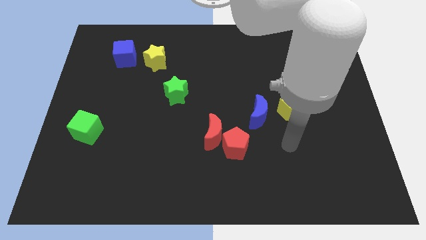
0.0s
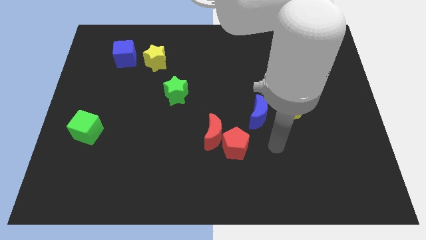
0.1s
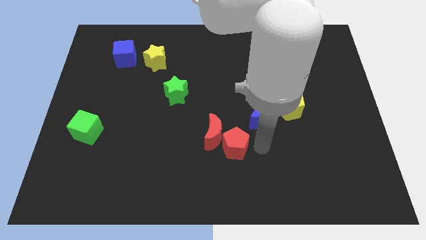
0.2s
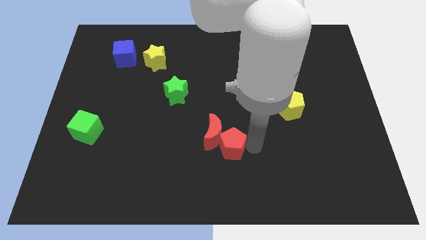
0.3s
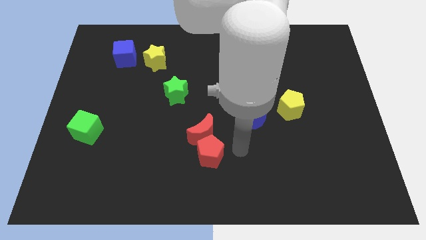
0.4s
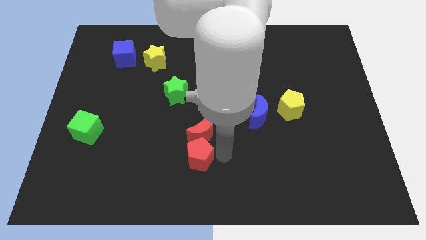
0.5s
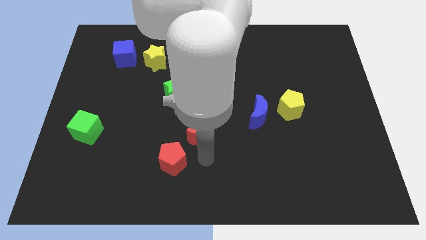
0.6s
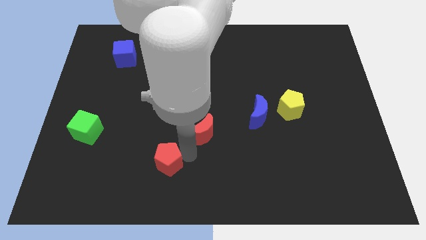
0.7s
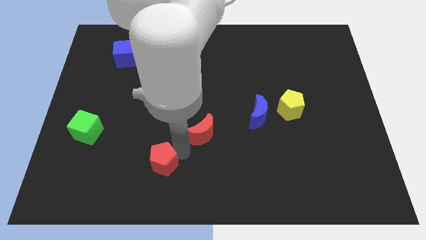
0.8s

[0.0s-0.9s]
separate the red moon from the red pentagon

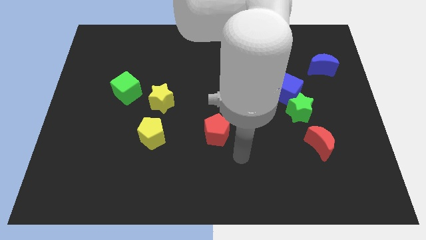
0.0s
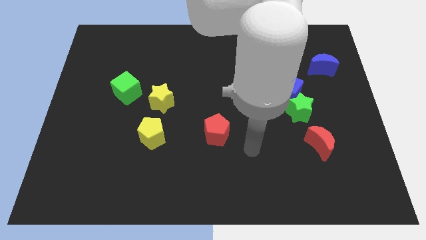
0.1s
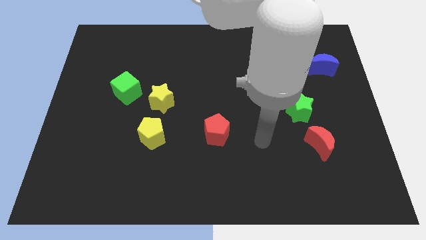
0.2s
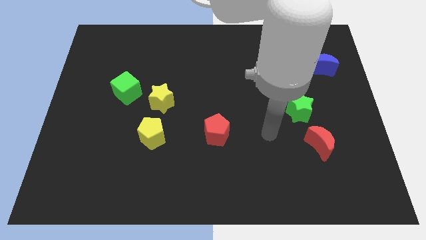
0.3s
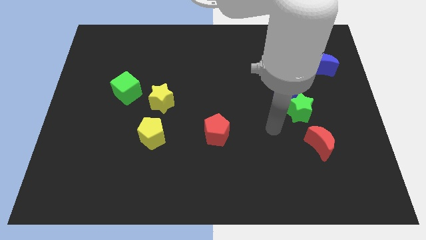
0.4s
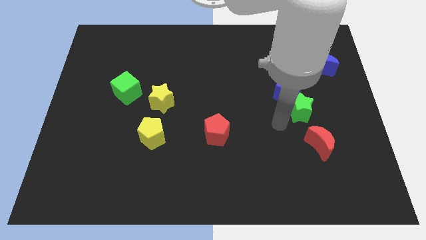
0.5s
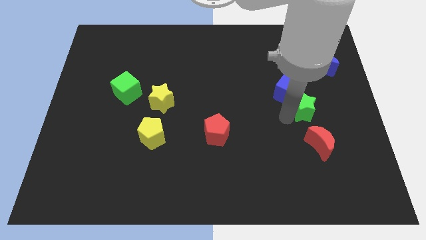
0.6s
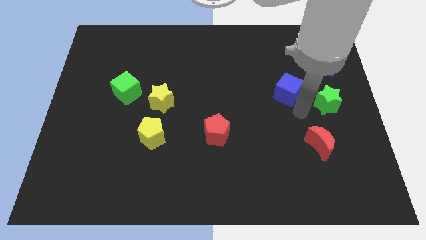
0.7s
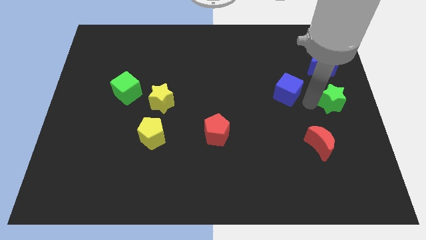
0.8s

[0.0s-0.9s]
separate the blue cube from the green star

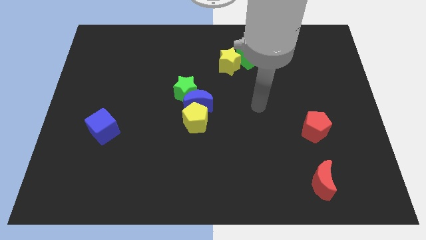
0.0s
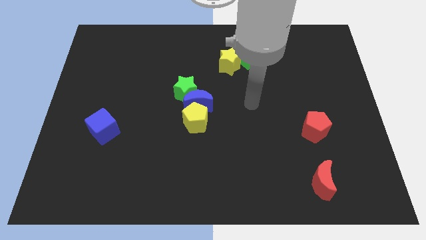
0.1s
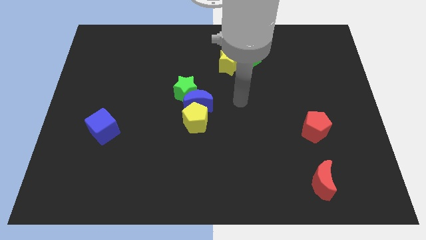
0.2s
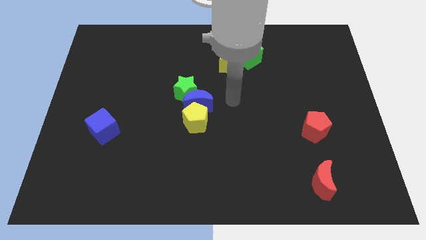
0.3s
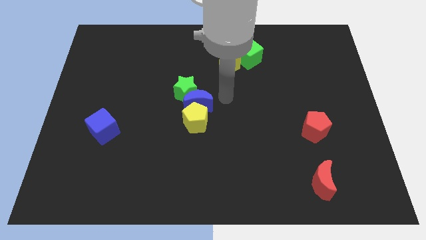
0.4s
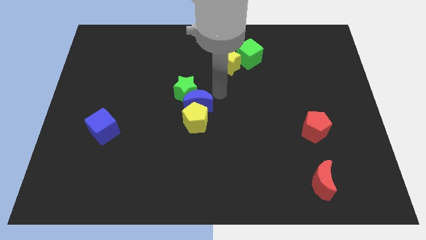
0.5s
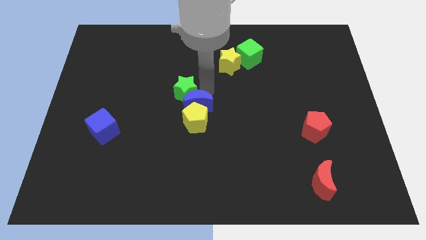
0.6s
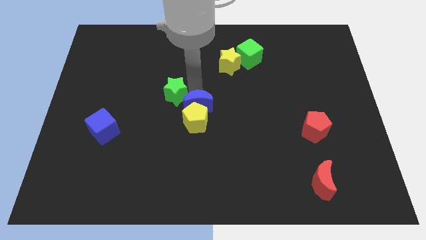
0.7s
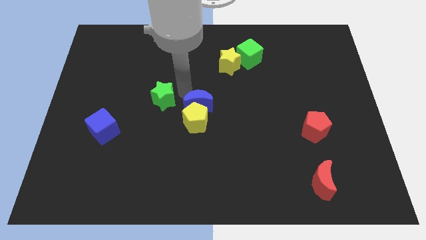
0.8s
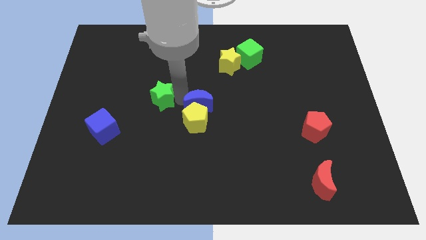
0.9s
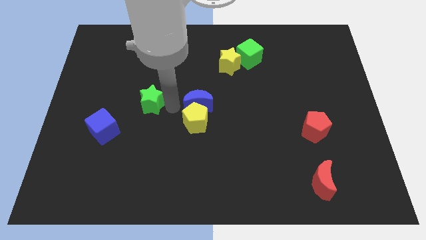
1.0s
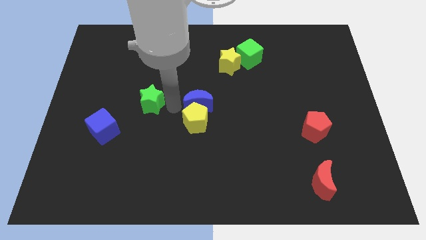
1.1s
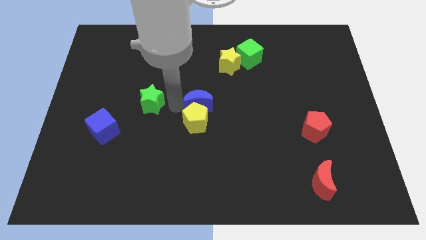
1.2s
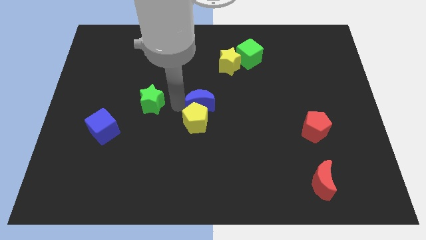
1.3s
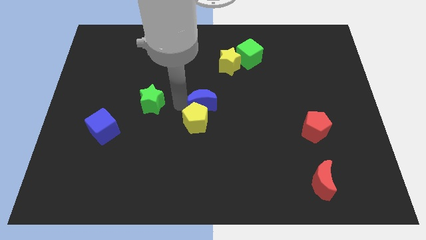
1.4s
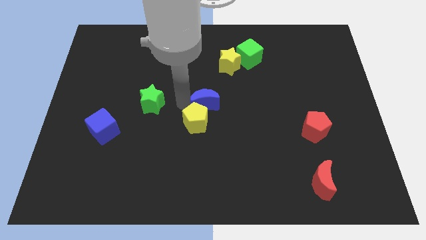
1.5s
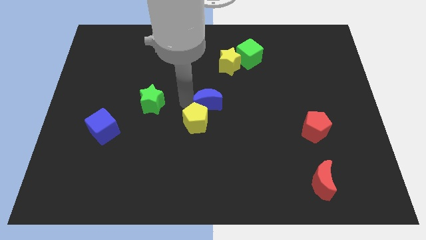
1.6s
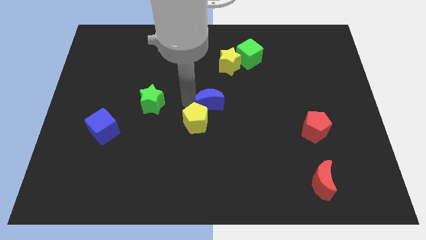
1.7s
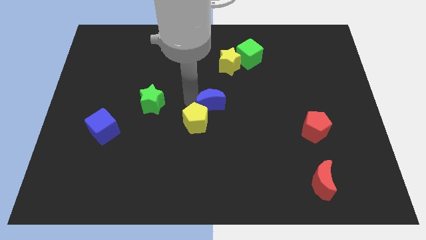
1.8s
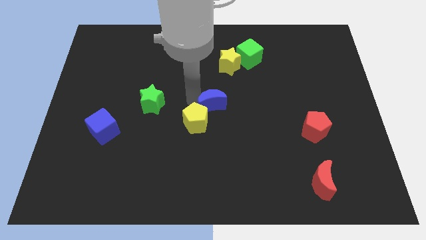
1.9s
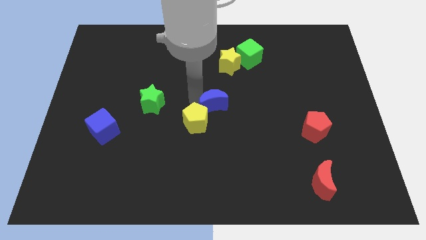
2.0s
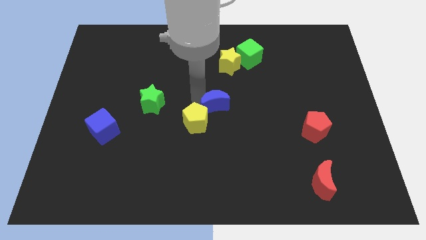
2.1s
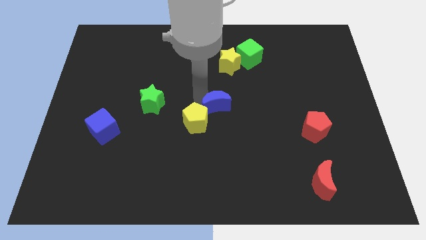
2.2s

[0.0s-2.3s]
pull the blue moon apart from the green star and yellow pentagon

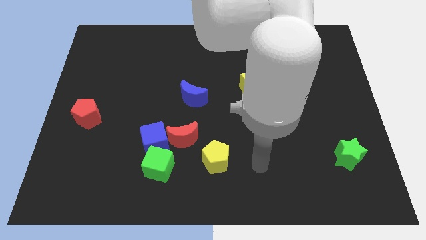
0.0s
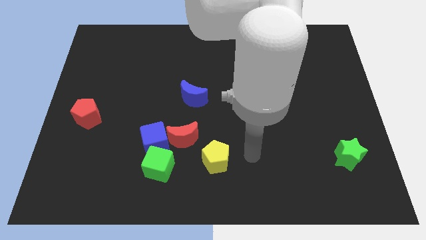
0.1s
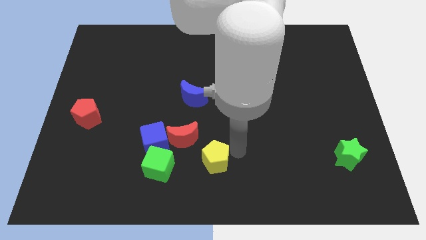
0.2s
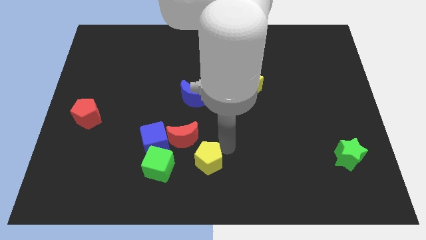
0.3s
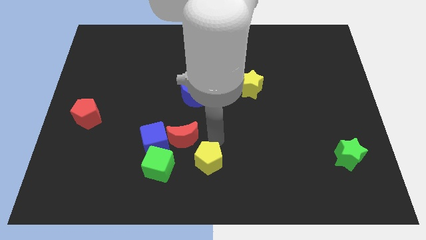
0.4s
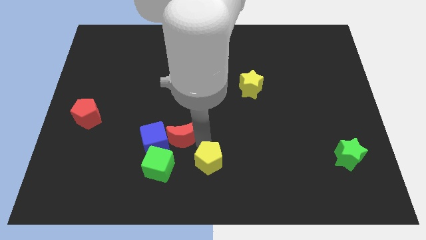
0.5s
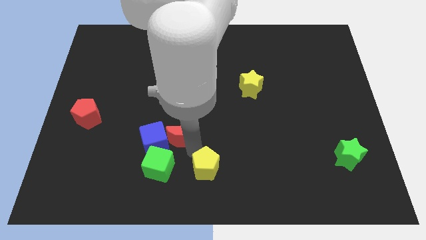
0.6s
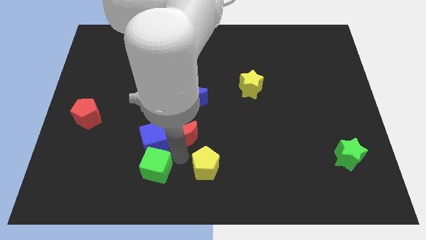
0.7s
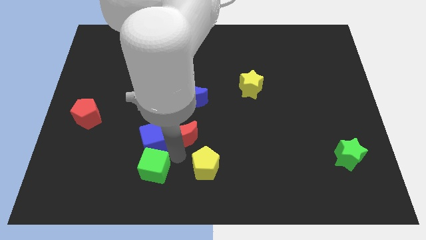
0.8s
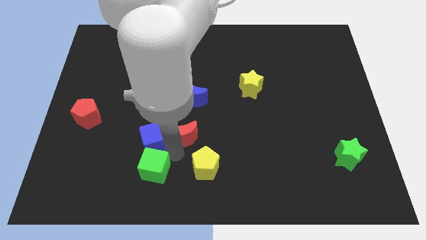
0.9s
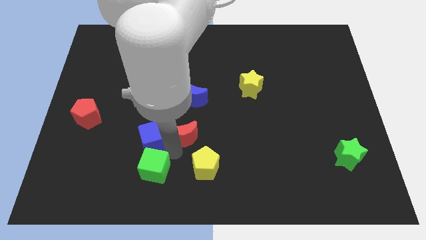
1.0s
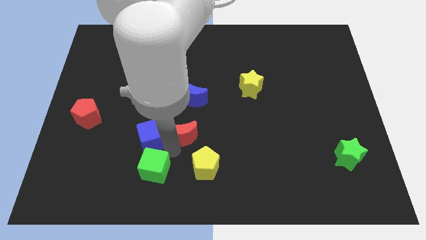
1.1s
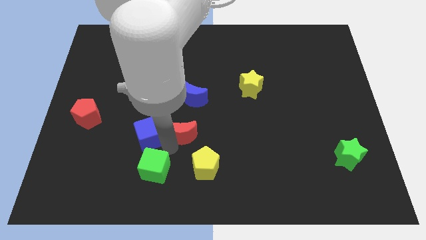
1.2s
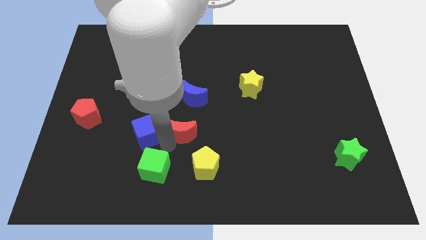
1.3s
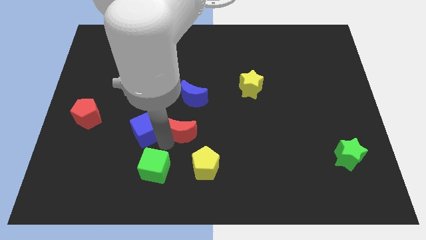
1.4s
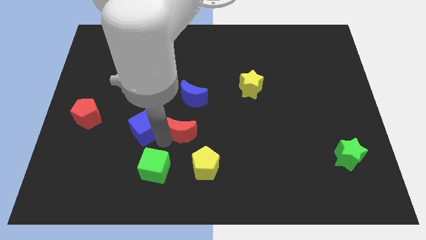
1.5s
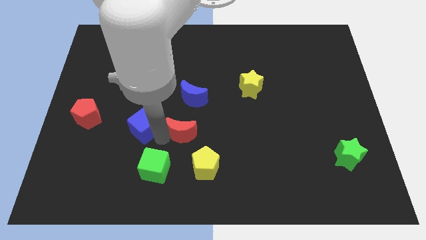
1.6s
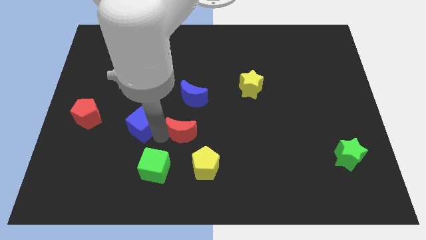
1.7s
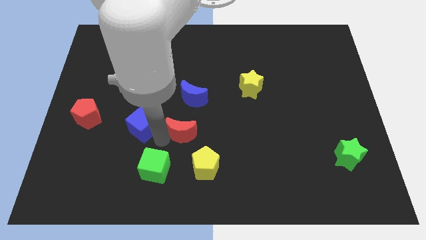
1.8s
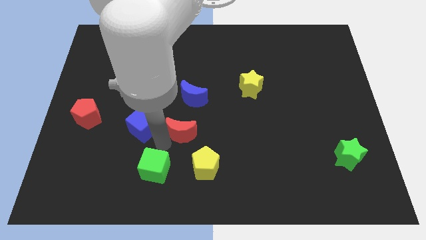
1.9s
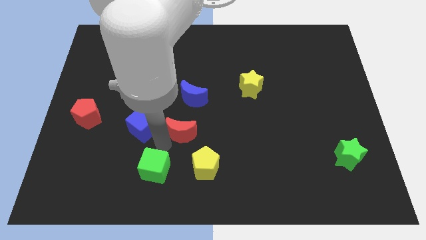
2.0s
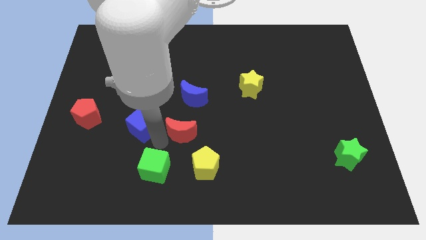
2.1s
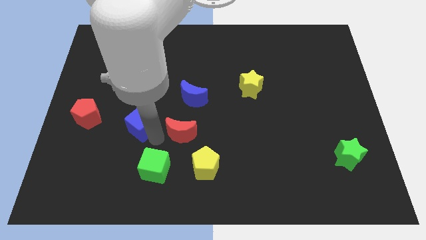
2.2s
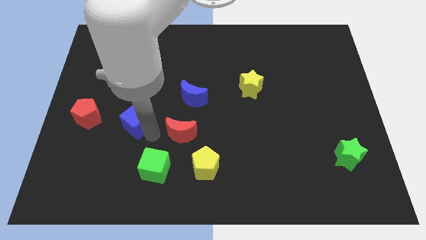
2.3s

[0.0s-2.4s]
separate the blue cube from the red moon and green cube

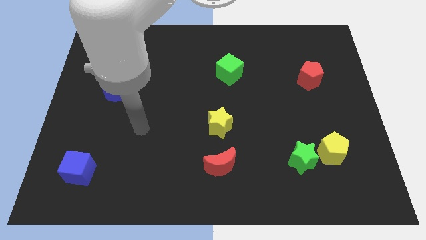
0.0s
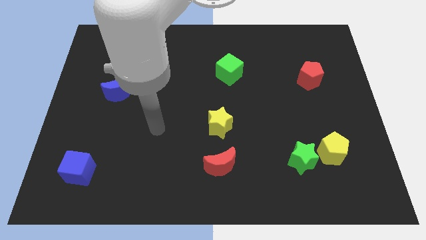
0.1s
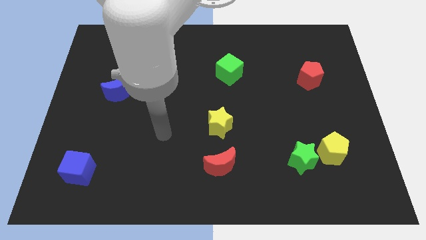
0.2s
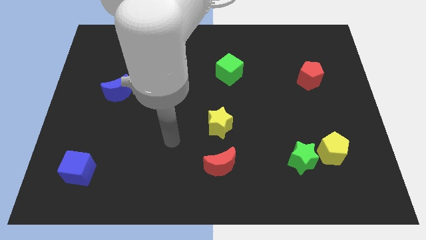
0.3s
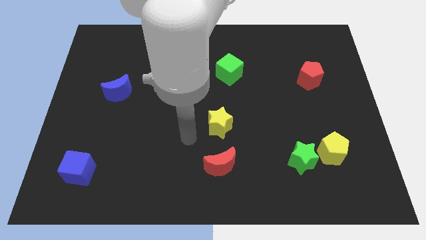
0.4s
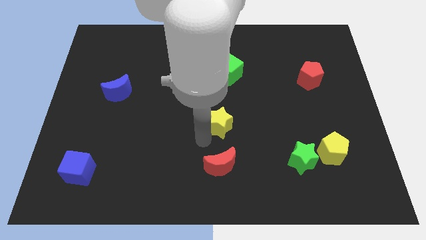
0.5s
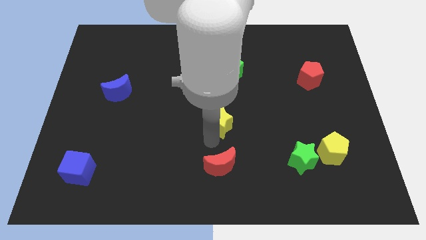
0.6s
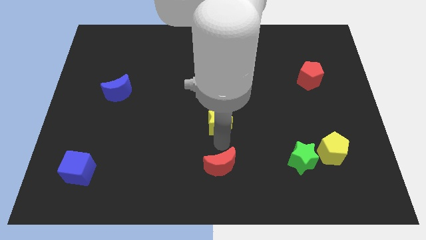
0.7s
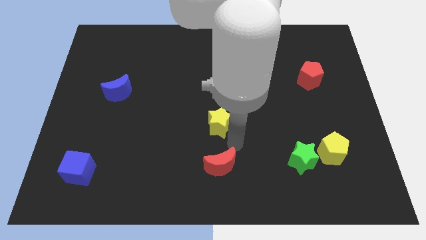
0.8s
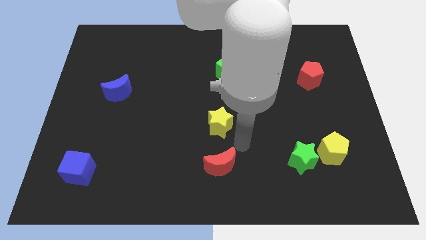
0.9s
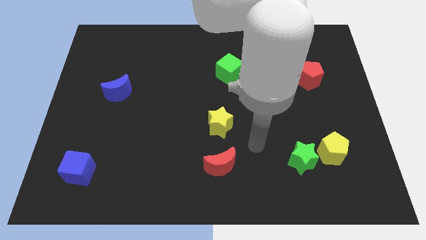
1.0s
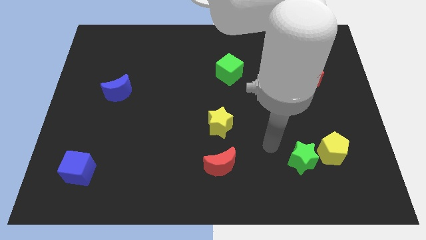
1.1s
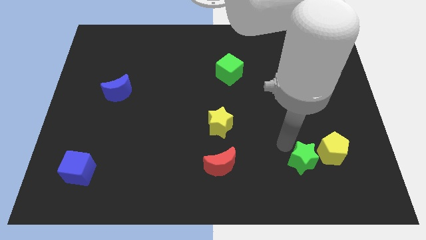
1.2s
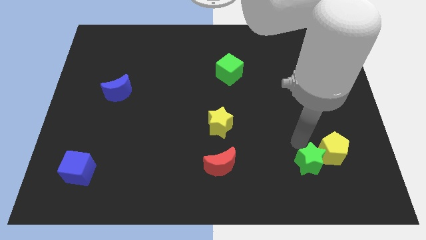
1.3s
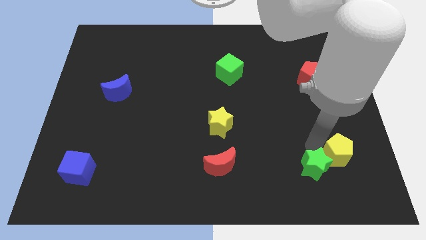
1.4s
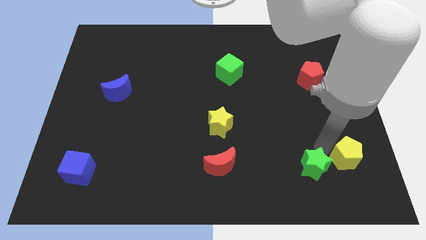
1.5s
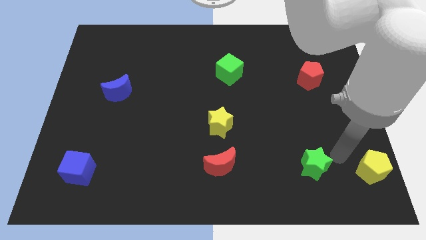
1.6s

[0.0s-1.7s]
separate the green star from the yellow pentagon

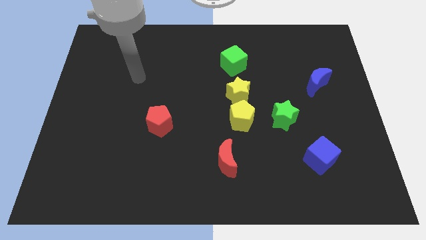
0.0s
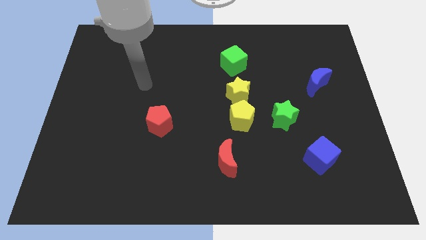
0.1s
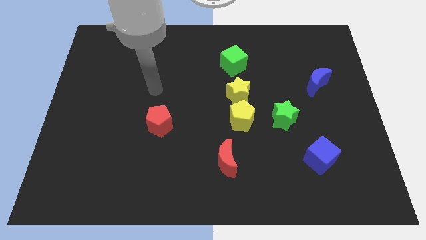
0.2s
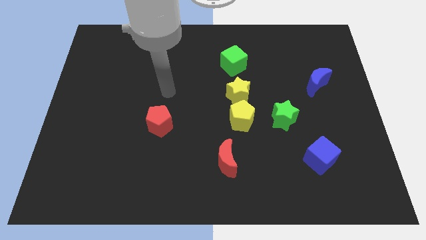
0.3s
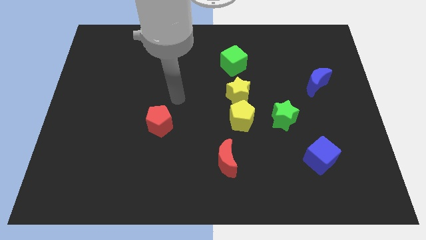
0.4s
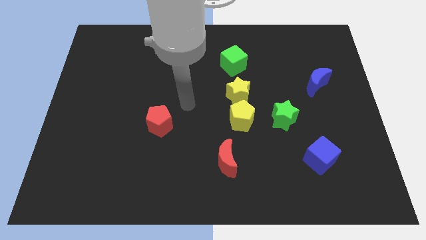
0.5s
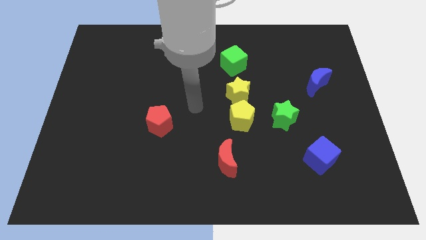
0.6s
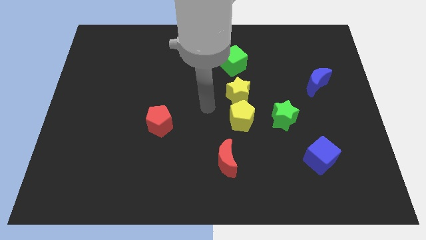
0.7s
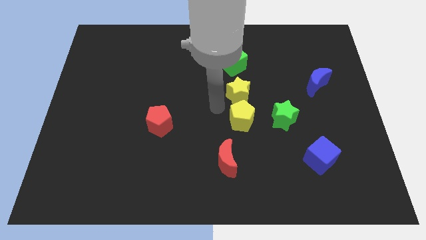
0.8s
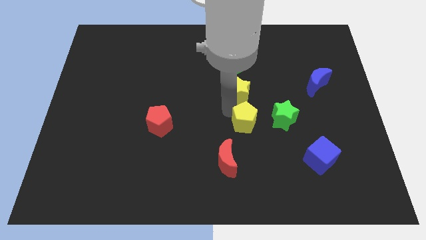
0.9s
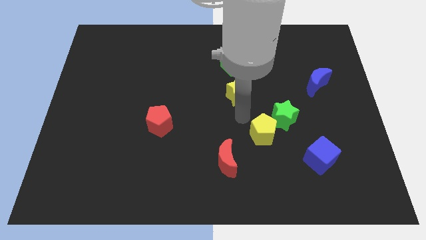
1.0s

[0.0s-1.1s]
move the yellow star away from the yellow pentagon
